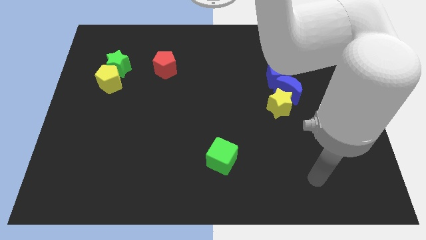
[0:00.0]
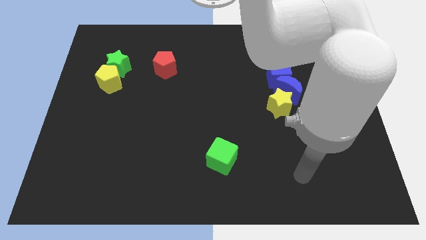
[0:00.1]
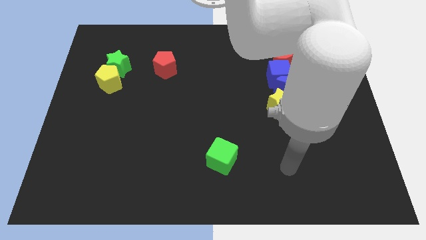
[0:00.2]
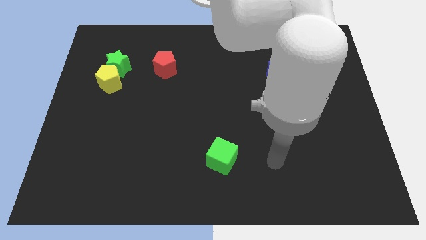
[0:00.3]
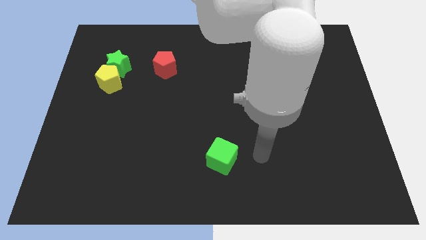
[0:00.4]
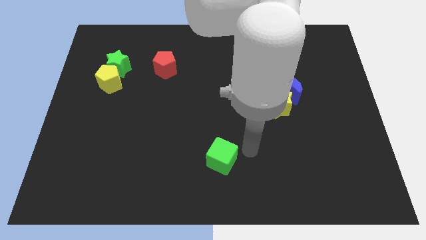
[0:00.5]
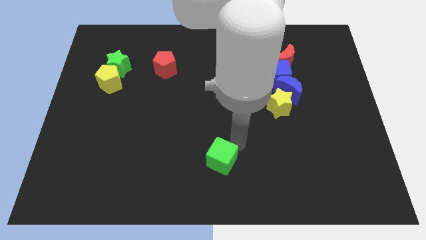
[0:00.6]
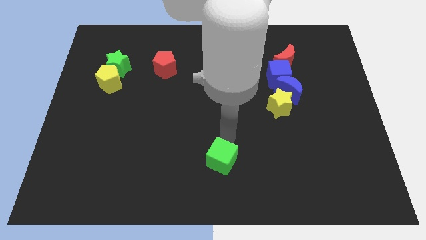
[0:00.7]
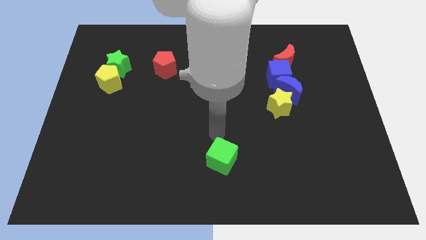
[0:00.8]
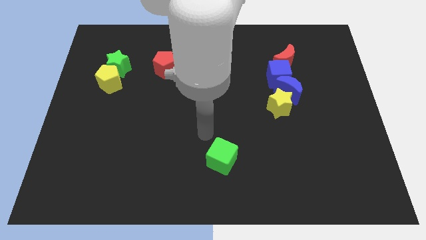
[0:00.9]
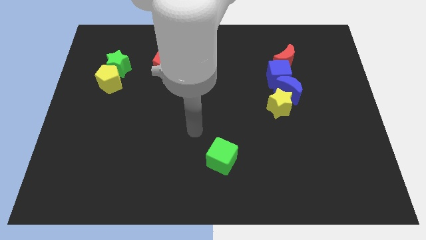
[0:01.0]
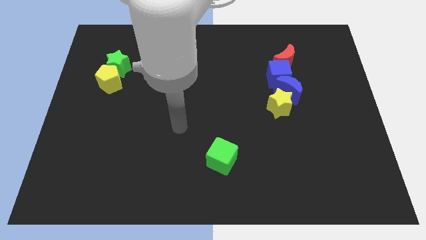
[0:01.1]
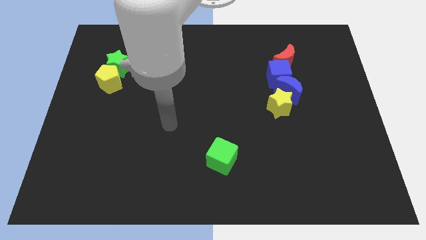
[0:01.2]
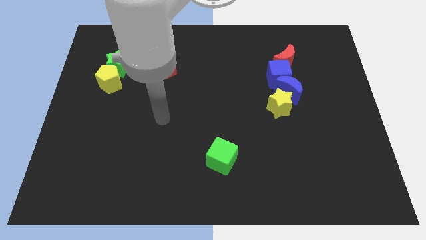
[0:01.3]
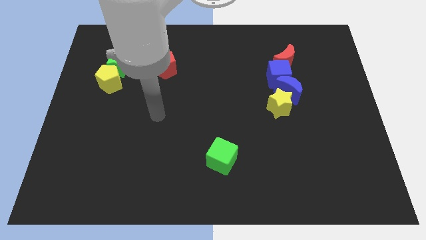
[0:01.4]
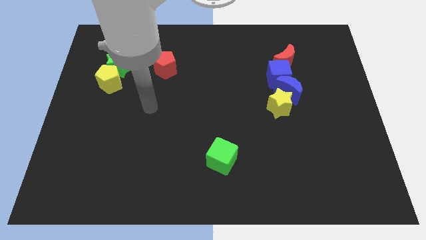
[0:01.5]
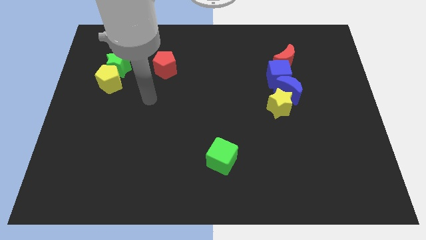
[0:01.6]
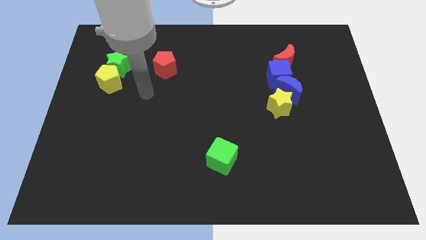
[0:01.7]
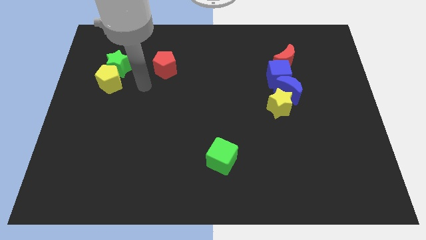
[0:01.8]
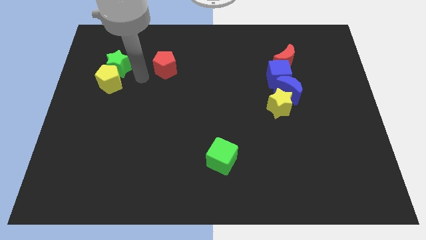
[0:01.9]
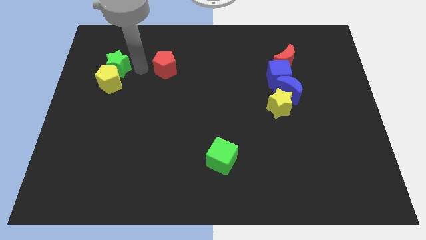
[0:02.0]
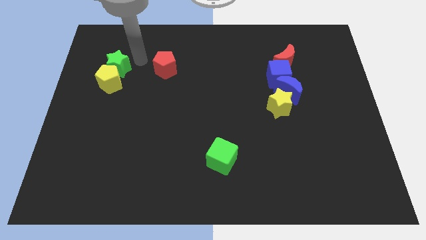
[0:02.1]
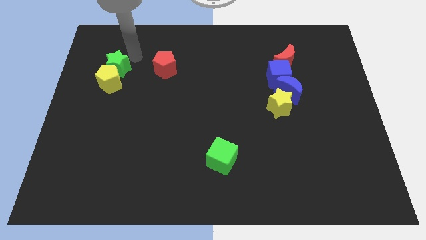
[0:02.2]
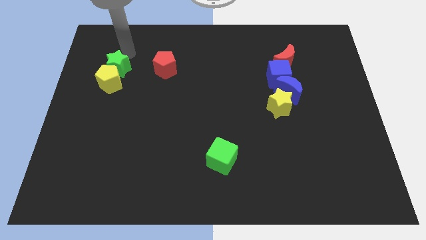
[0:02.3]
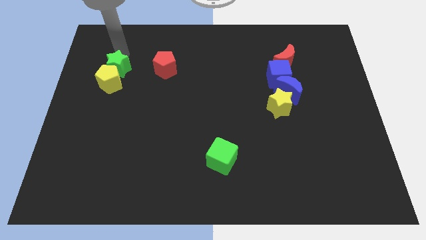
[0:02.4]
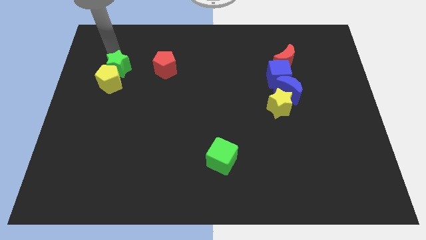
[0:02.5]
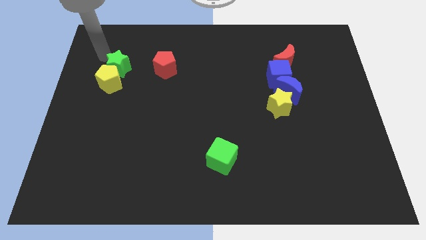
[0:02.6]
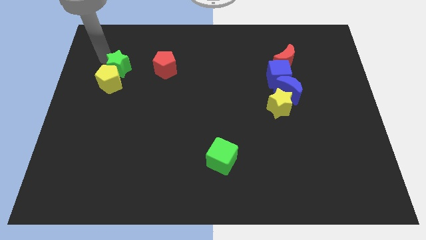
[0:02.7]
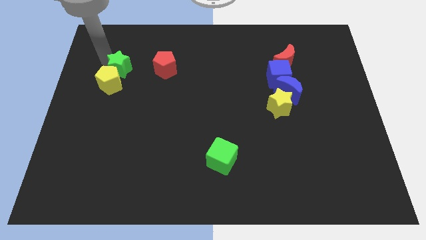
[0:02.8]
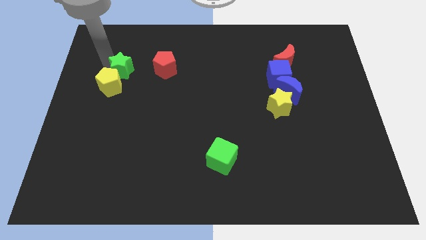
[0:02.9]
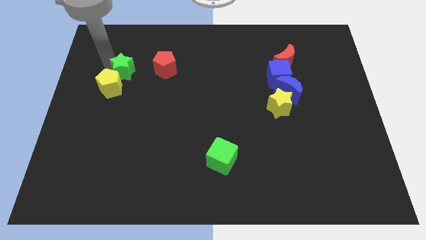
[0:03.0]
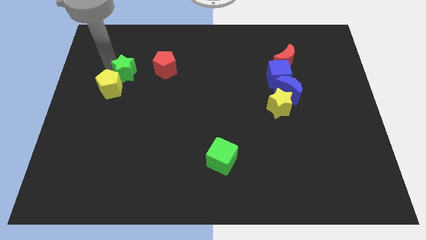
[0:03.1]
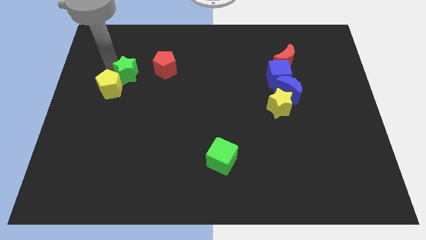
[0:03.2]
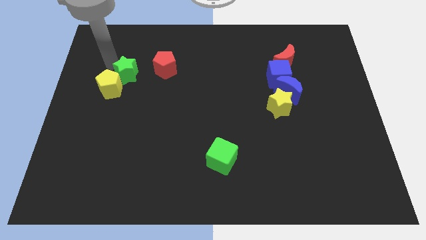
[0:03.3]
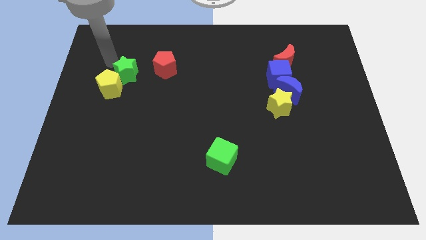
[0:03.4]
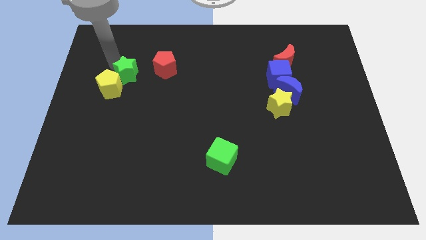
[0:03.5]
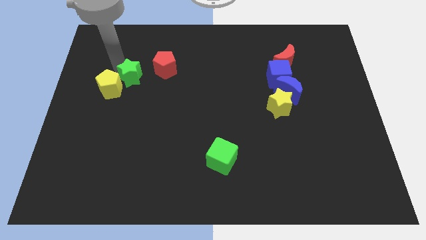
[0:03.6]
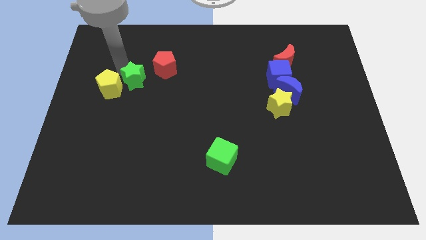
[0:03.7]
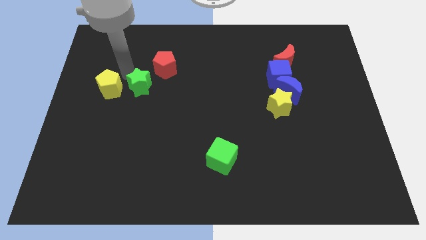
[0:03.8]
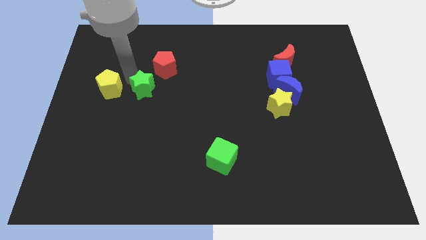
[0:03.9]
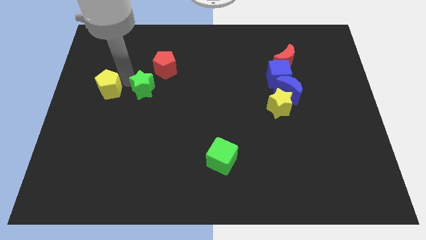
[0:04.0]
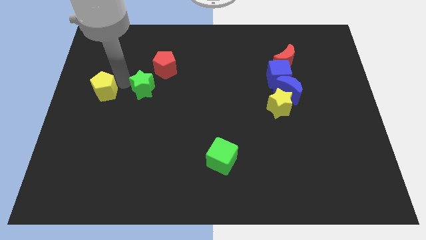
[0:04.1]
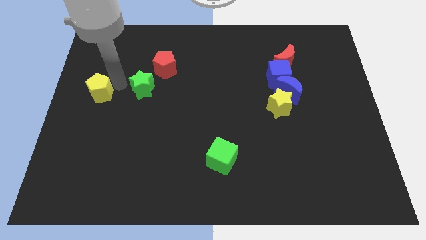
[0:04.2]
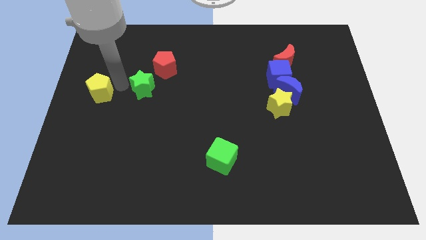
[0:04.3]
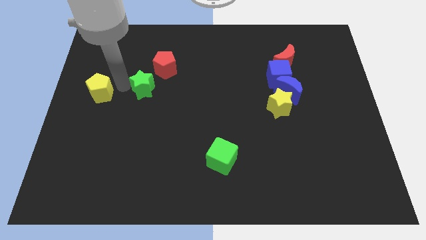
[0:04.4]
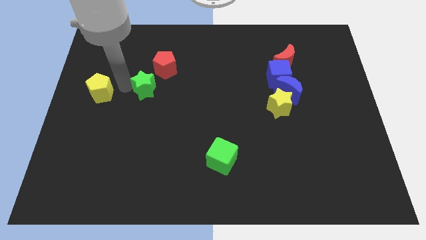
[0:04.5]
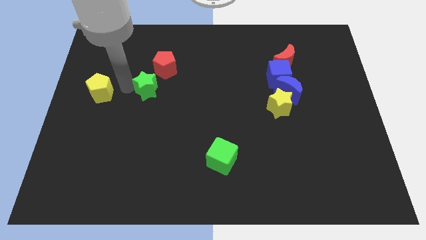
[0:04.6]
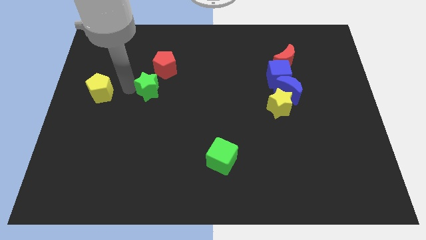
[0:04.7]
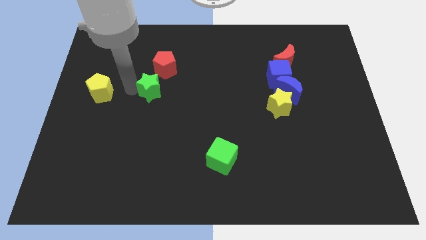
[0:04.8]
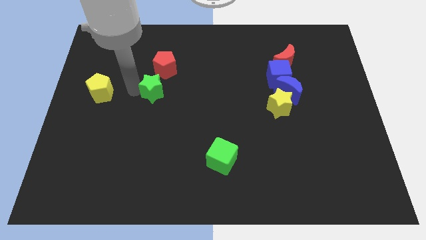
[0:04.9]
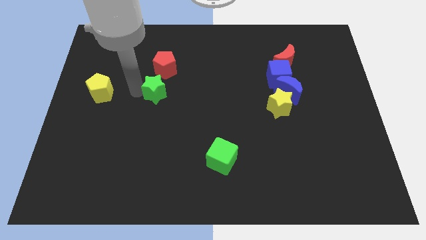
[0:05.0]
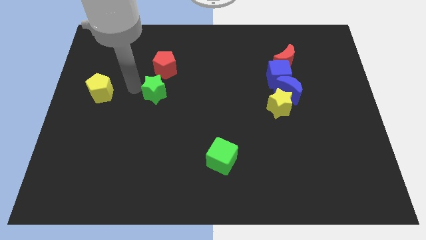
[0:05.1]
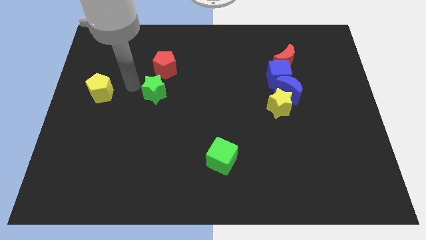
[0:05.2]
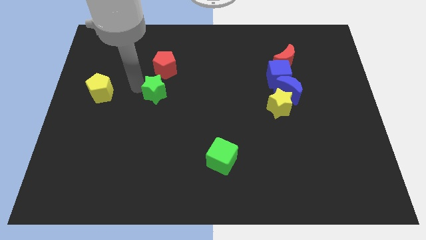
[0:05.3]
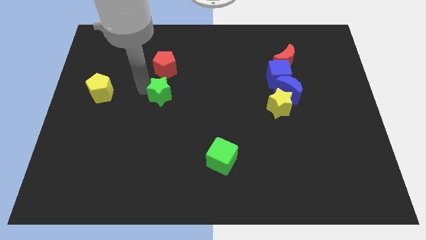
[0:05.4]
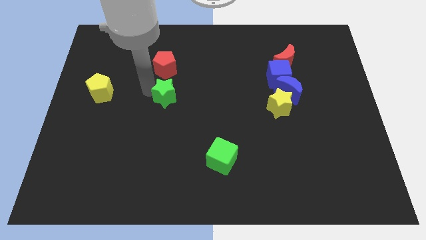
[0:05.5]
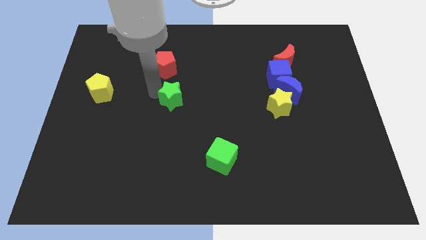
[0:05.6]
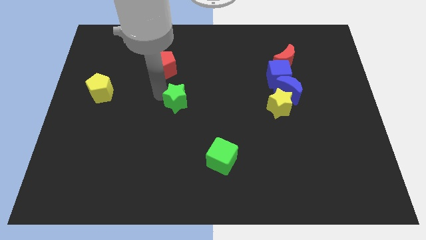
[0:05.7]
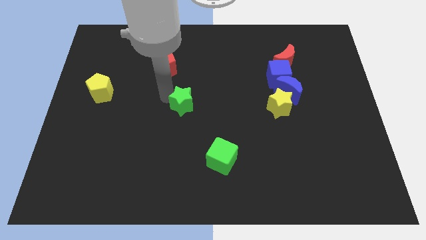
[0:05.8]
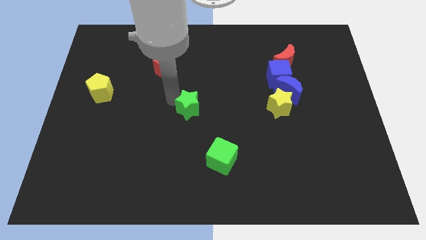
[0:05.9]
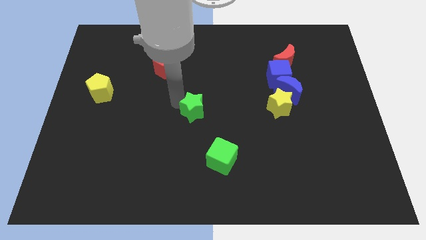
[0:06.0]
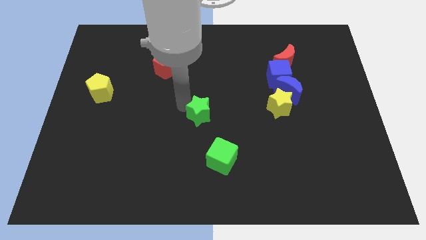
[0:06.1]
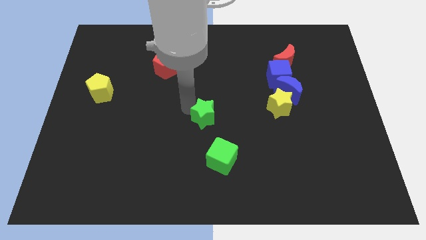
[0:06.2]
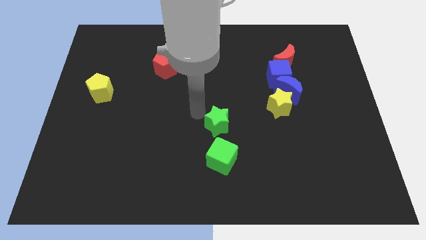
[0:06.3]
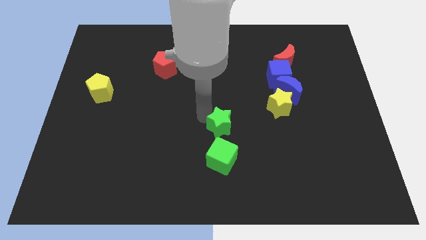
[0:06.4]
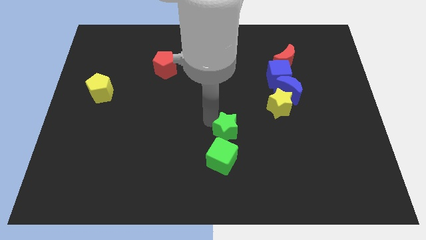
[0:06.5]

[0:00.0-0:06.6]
put the green star to the top right of the green cube
